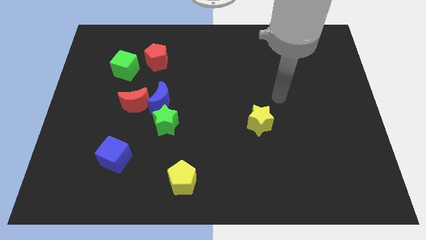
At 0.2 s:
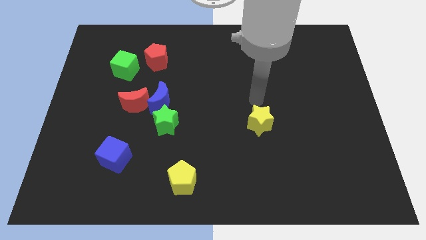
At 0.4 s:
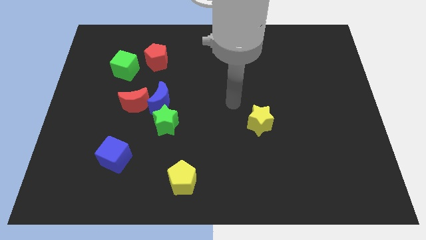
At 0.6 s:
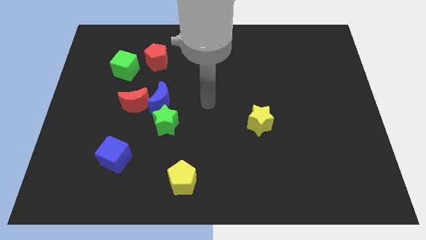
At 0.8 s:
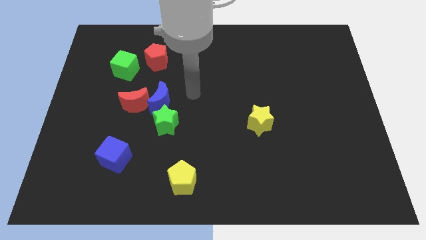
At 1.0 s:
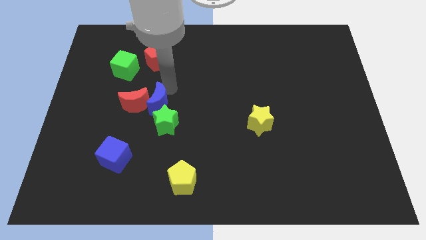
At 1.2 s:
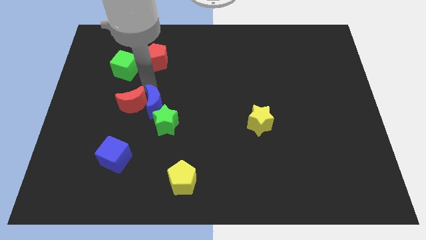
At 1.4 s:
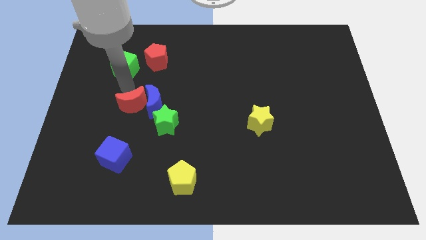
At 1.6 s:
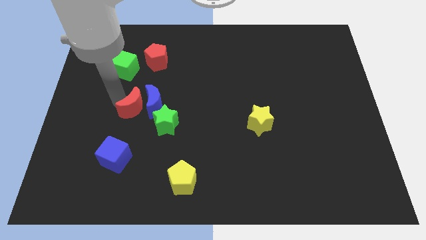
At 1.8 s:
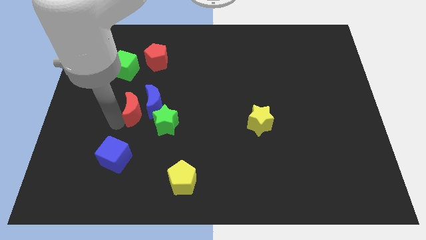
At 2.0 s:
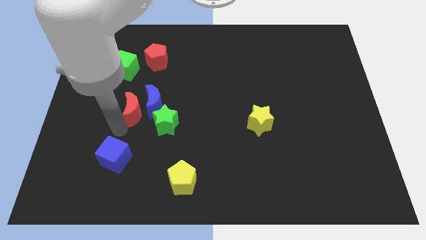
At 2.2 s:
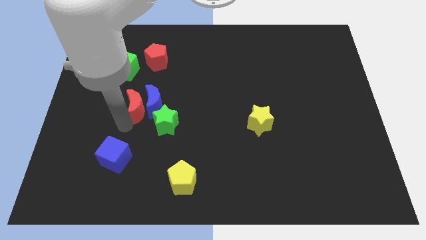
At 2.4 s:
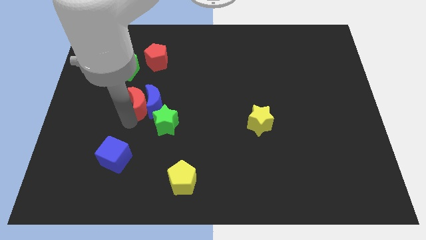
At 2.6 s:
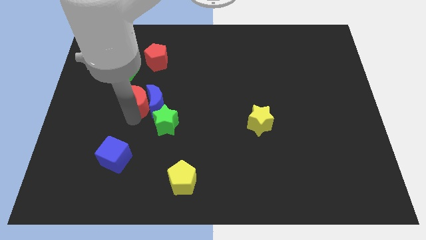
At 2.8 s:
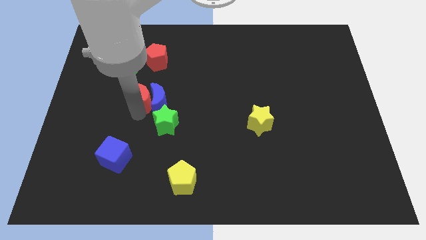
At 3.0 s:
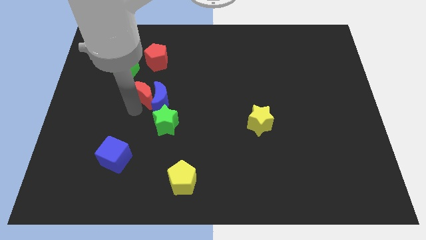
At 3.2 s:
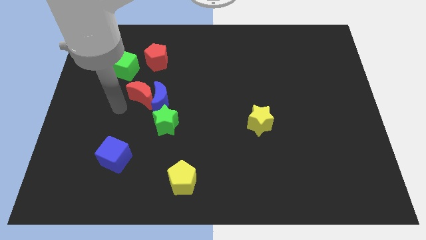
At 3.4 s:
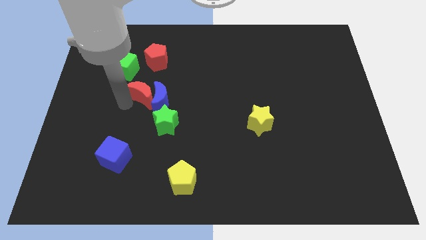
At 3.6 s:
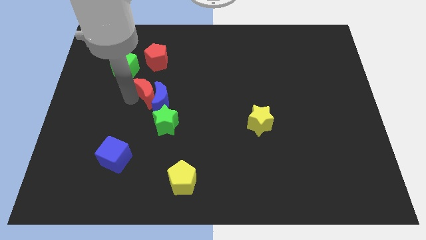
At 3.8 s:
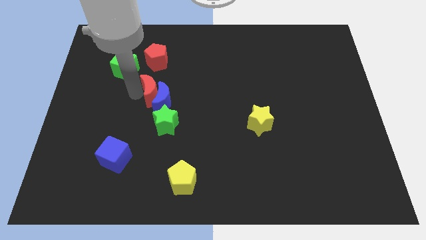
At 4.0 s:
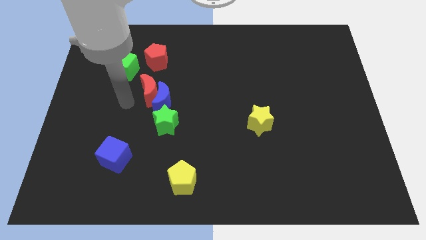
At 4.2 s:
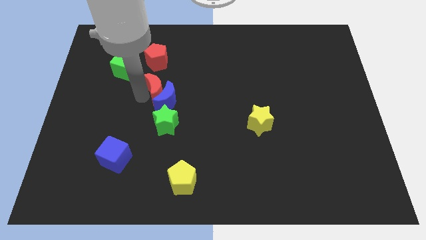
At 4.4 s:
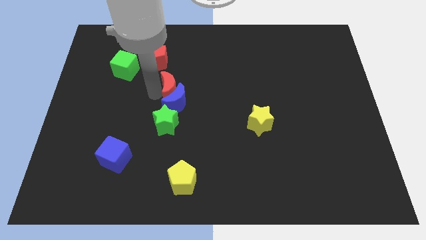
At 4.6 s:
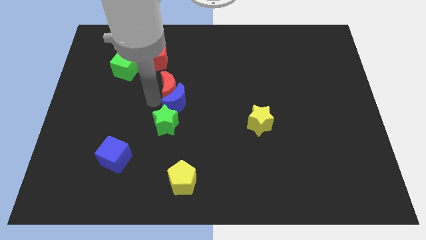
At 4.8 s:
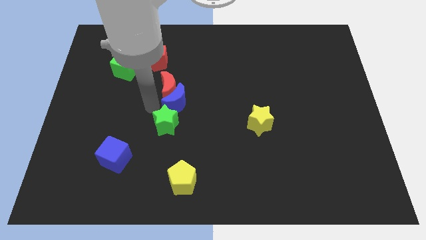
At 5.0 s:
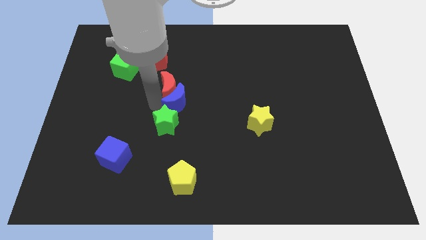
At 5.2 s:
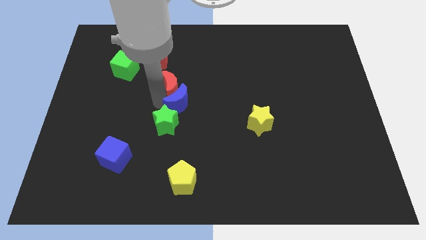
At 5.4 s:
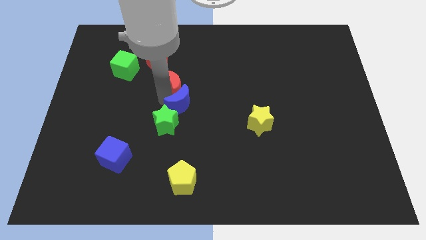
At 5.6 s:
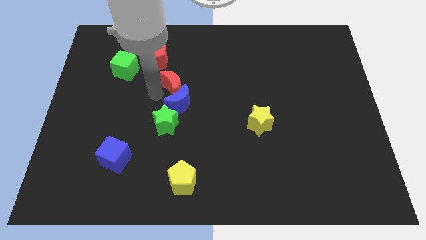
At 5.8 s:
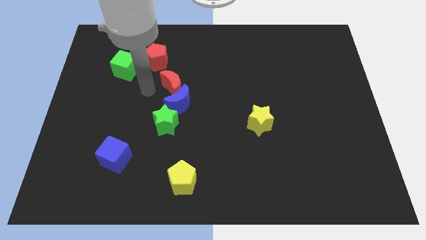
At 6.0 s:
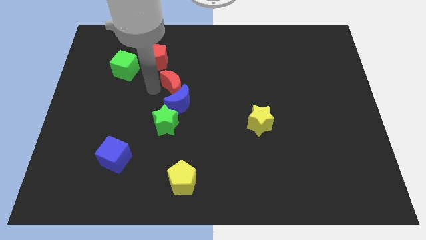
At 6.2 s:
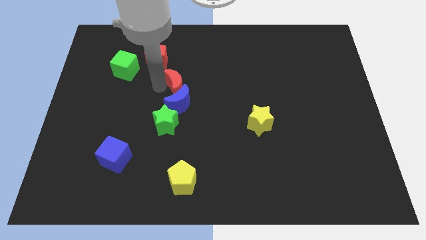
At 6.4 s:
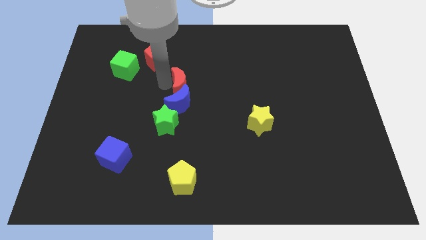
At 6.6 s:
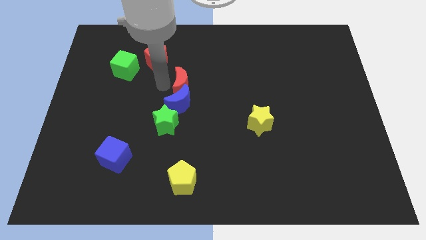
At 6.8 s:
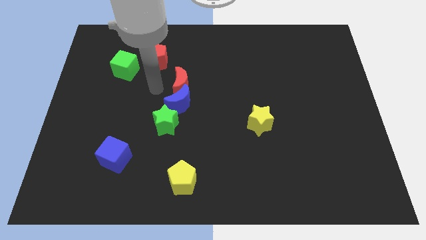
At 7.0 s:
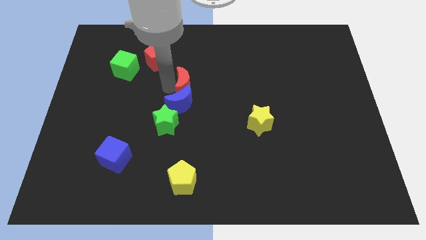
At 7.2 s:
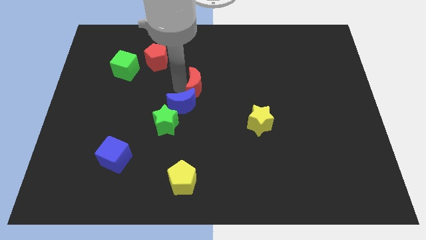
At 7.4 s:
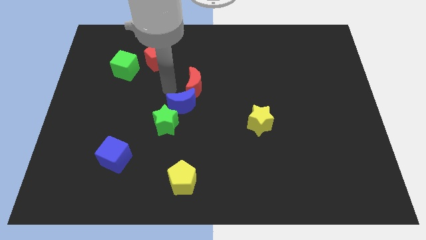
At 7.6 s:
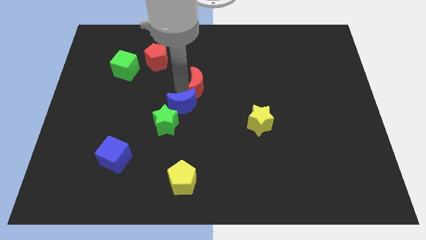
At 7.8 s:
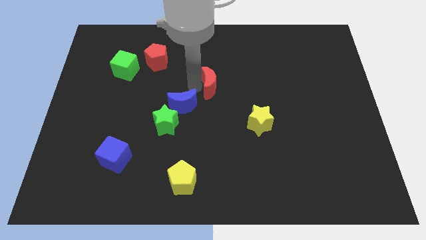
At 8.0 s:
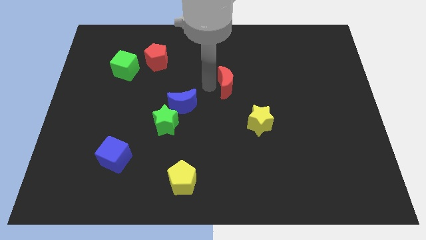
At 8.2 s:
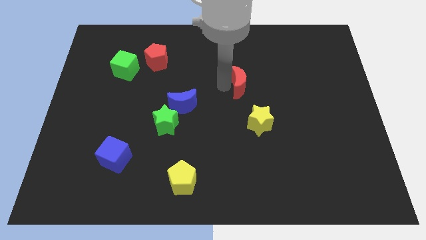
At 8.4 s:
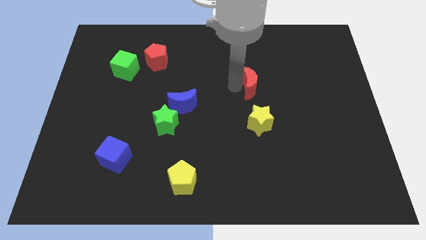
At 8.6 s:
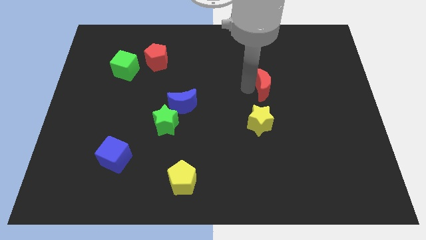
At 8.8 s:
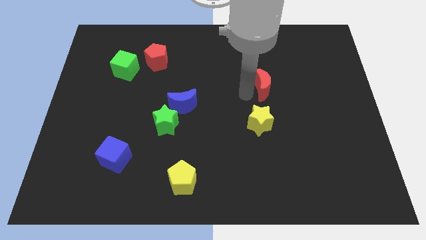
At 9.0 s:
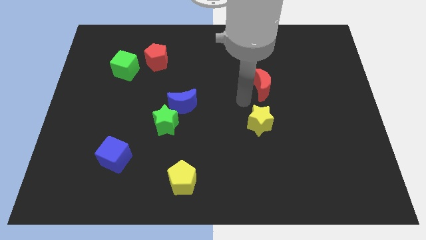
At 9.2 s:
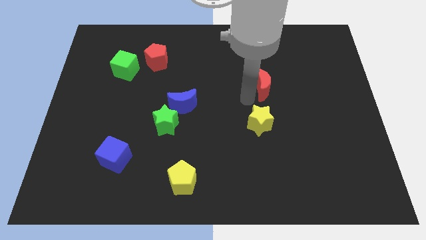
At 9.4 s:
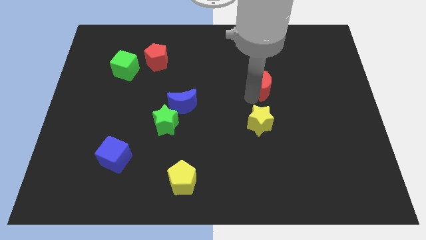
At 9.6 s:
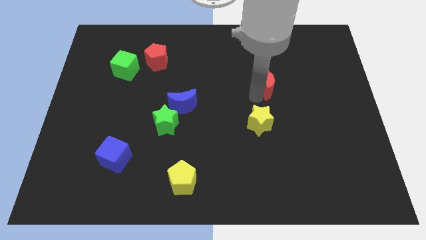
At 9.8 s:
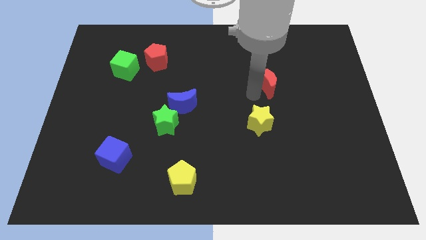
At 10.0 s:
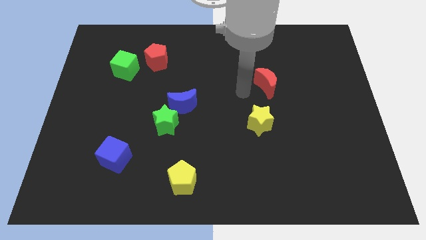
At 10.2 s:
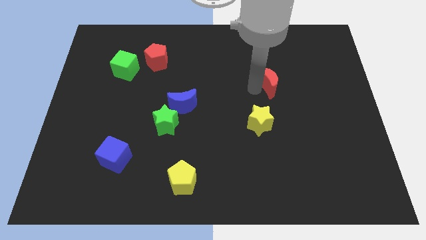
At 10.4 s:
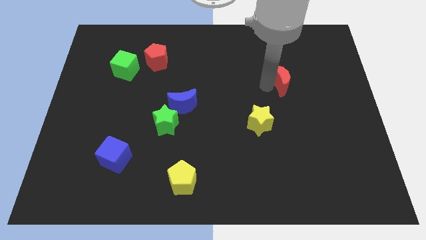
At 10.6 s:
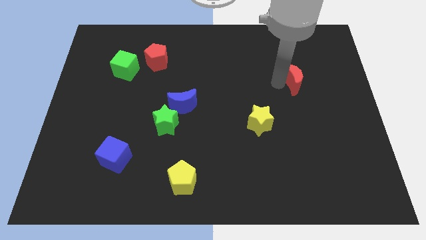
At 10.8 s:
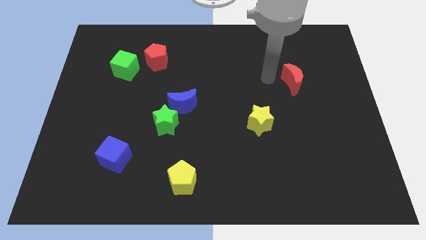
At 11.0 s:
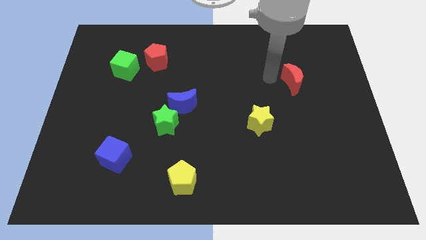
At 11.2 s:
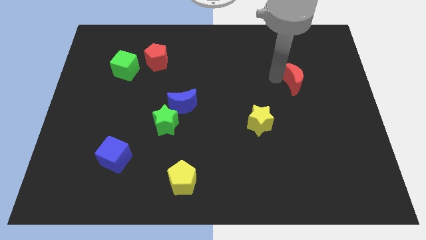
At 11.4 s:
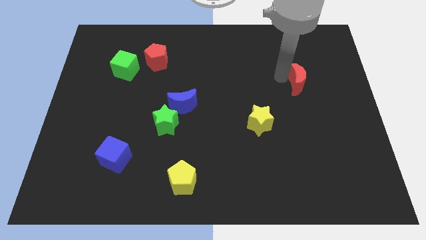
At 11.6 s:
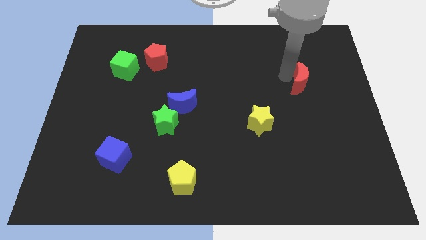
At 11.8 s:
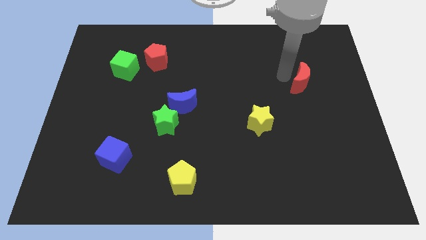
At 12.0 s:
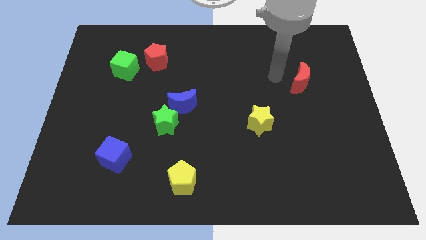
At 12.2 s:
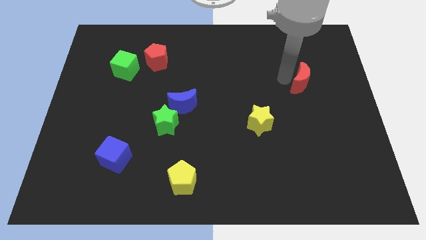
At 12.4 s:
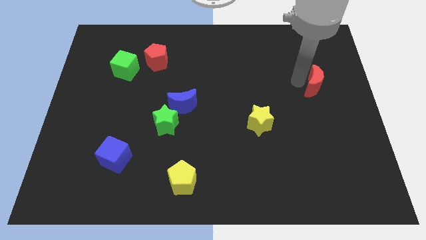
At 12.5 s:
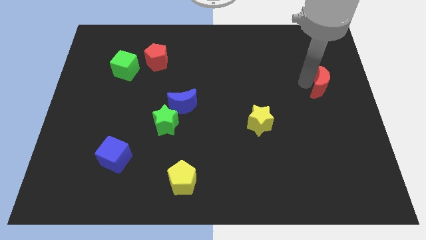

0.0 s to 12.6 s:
move the red moon to the center right
